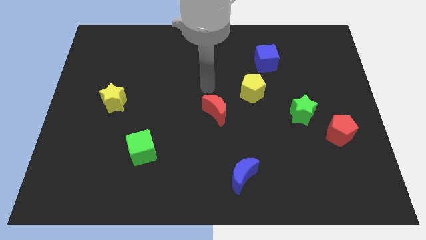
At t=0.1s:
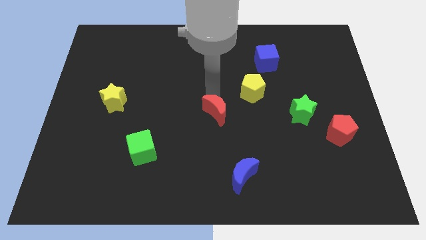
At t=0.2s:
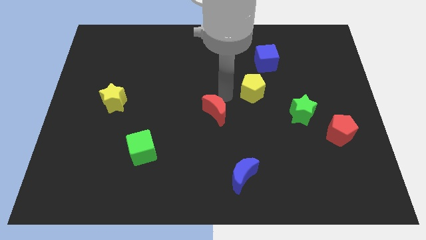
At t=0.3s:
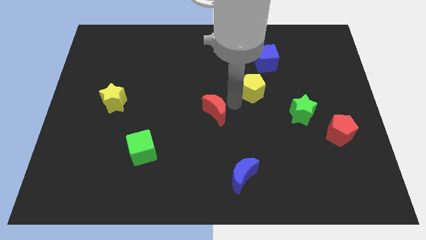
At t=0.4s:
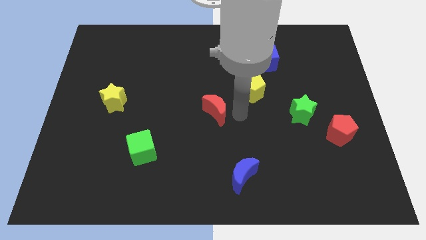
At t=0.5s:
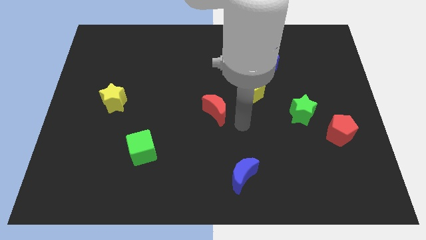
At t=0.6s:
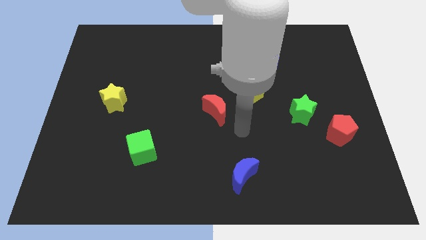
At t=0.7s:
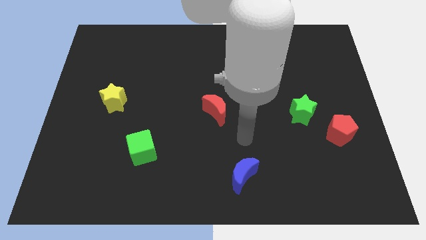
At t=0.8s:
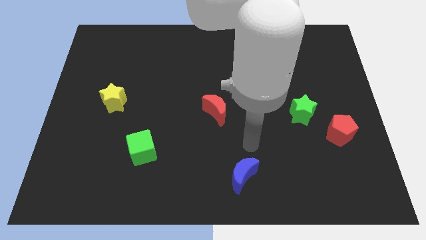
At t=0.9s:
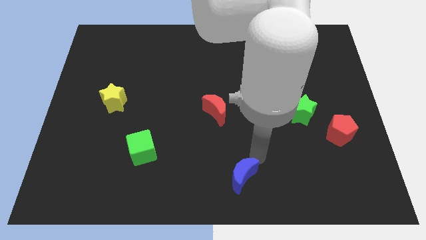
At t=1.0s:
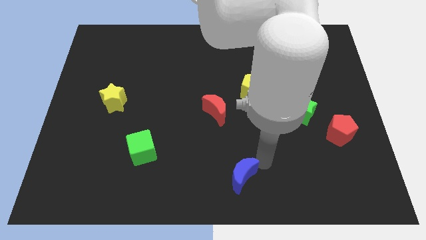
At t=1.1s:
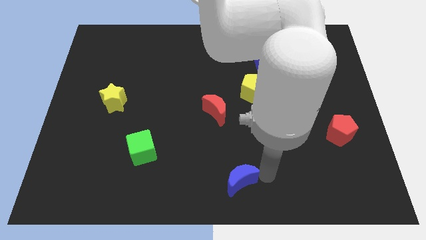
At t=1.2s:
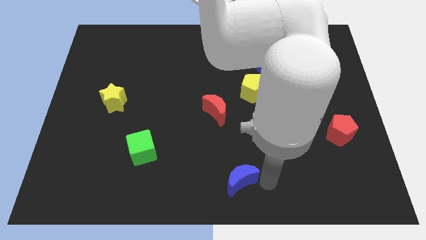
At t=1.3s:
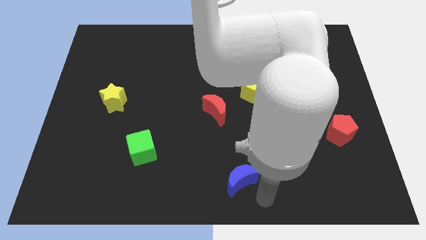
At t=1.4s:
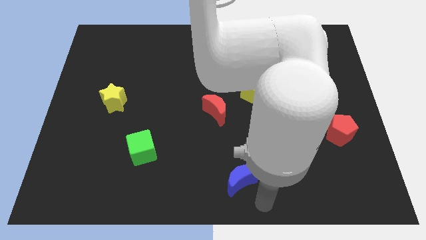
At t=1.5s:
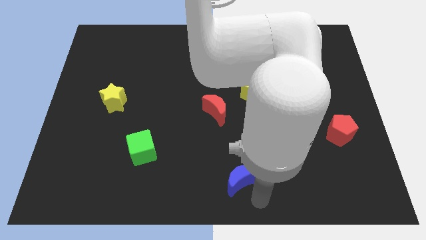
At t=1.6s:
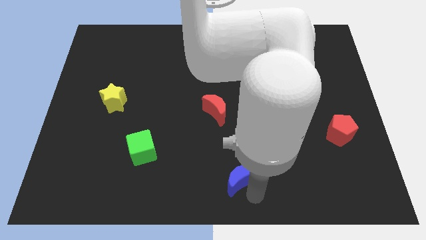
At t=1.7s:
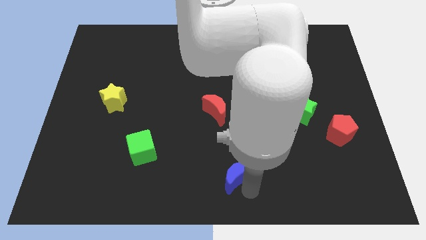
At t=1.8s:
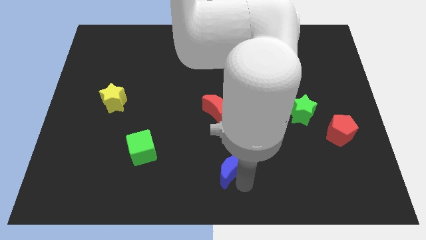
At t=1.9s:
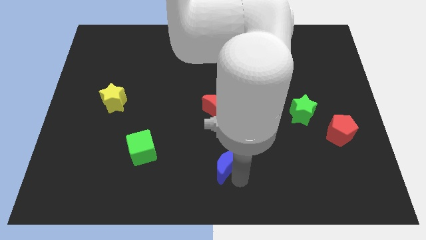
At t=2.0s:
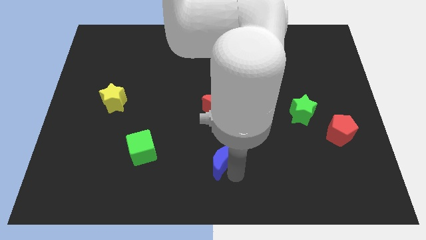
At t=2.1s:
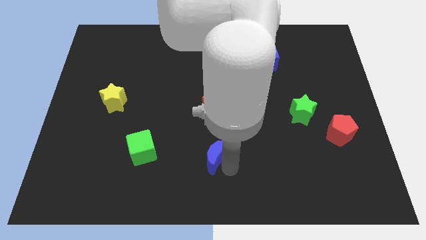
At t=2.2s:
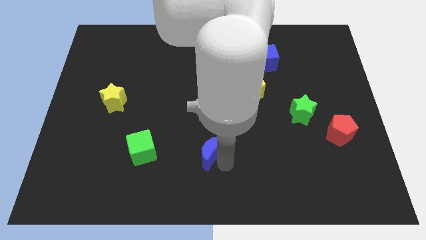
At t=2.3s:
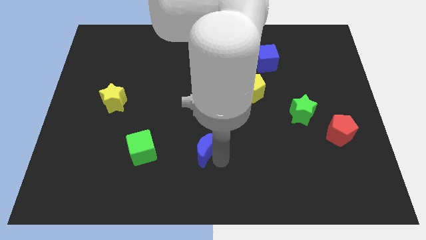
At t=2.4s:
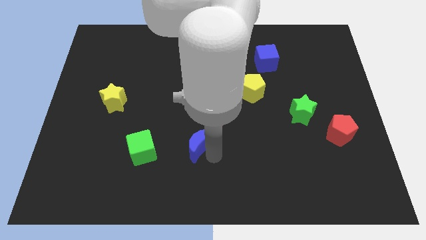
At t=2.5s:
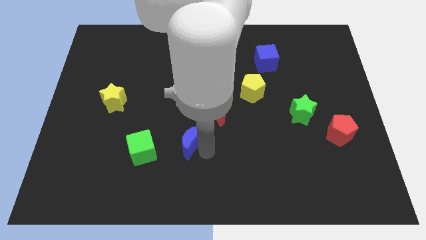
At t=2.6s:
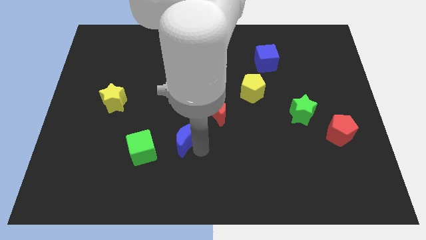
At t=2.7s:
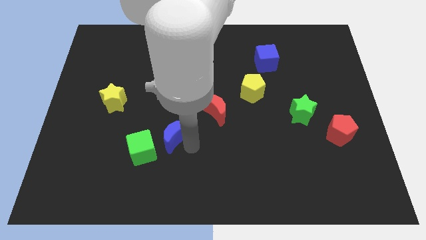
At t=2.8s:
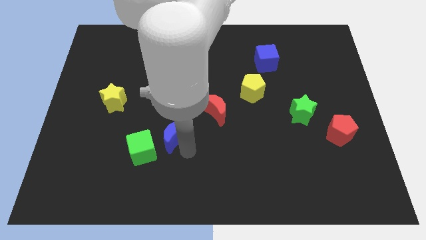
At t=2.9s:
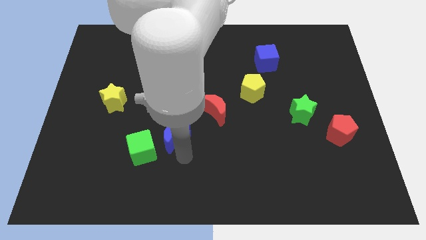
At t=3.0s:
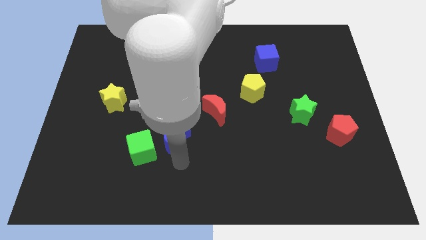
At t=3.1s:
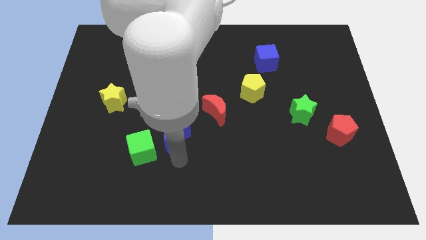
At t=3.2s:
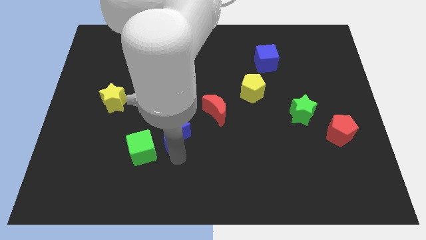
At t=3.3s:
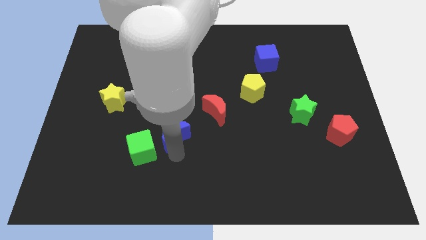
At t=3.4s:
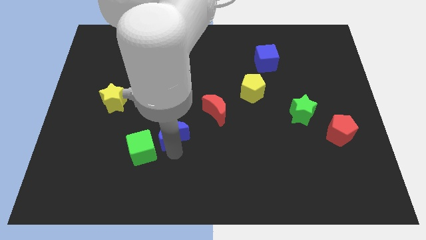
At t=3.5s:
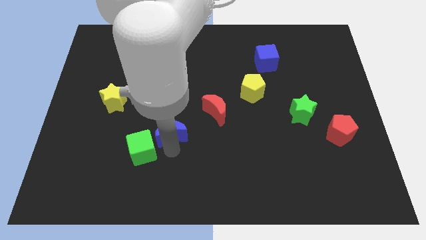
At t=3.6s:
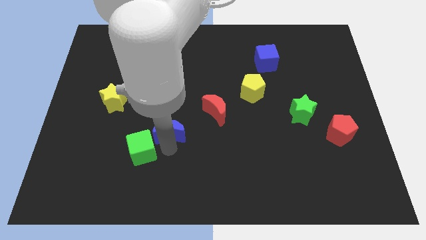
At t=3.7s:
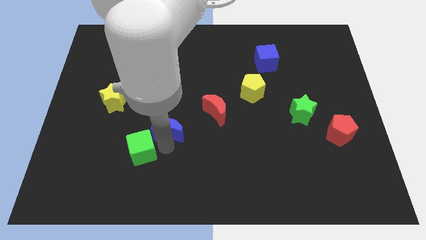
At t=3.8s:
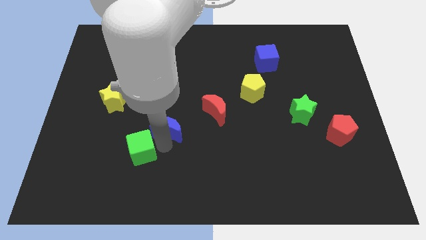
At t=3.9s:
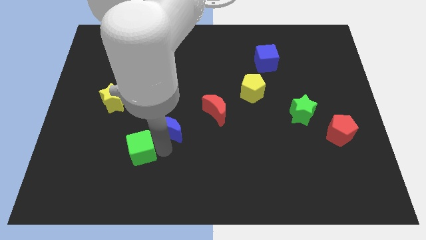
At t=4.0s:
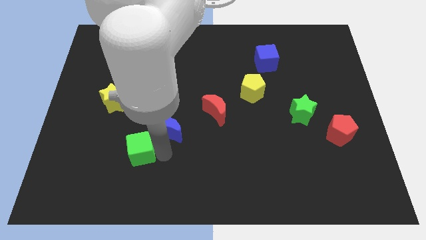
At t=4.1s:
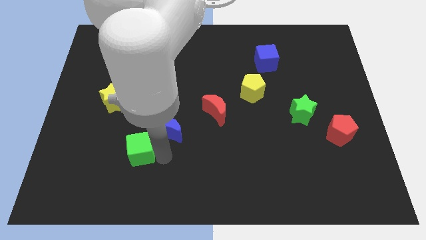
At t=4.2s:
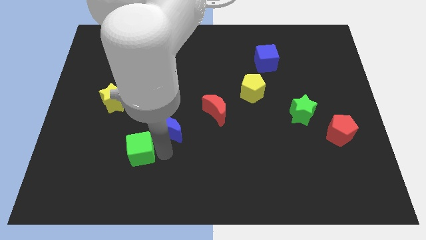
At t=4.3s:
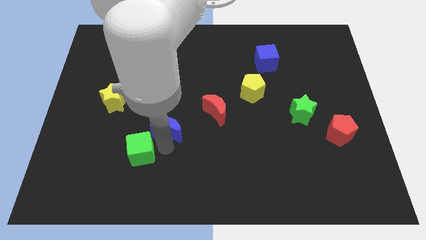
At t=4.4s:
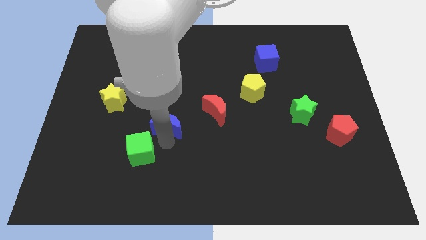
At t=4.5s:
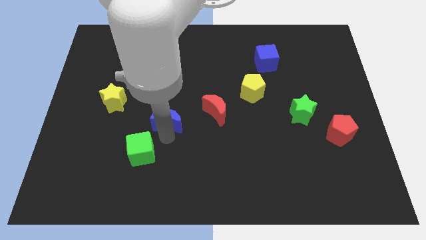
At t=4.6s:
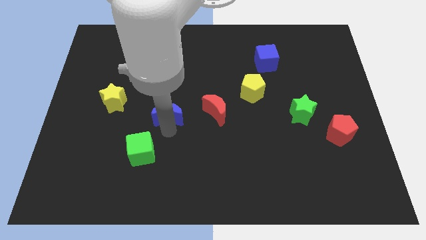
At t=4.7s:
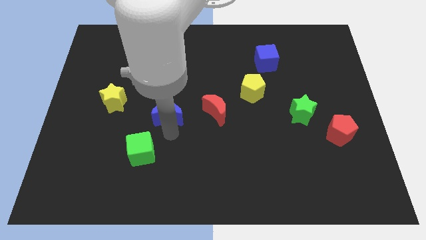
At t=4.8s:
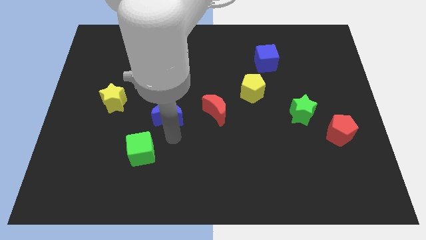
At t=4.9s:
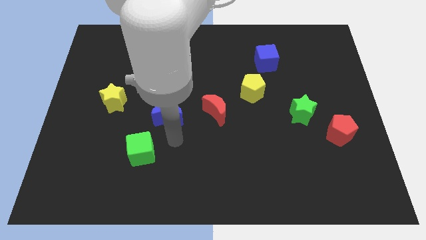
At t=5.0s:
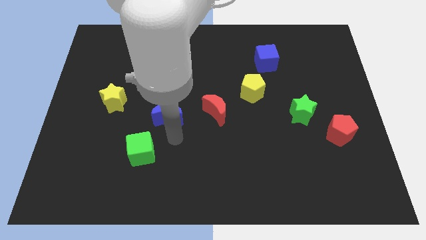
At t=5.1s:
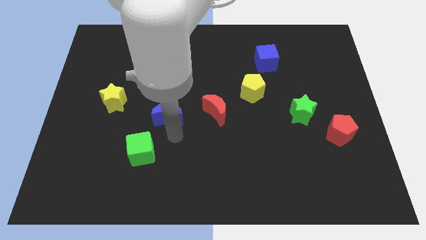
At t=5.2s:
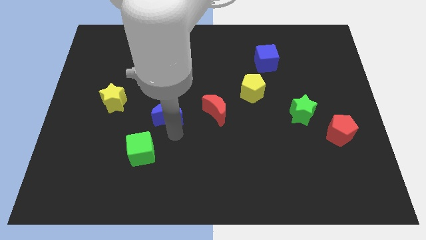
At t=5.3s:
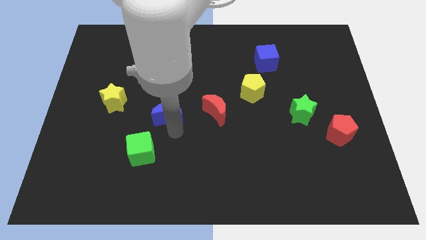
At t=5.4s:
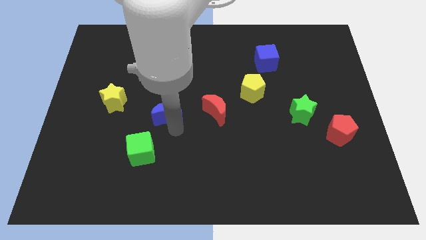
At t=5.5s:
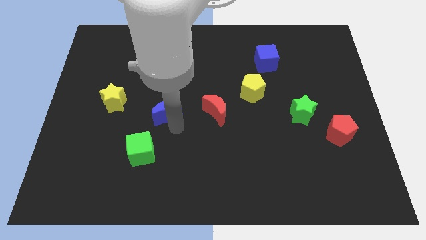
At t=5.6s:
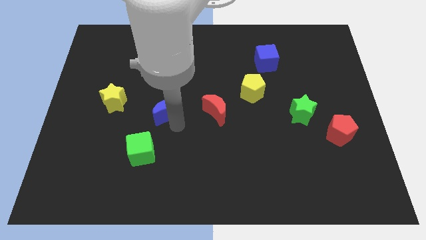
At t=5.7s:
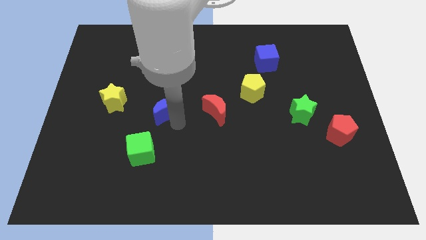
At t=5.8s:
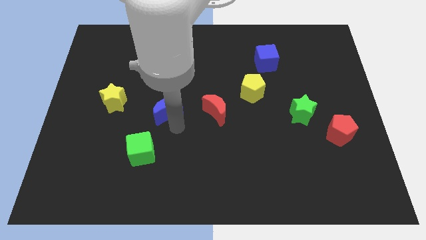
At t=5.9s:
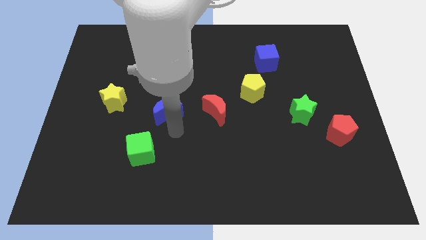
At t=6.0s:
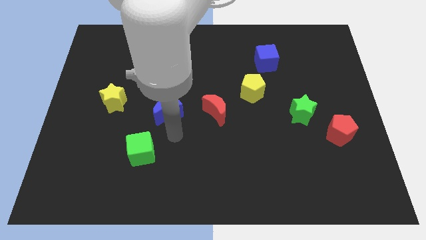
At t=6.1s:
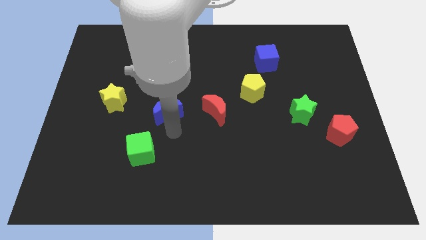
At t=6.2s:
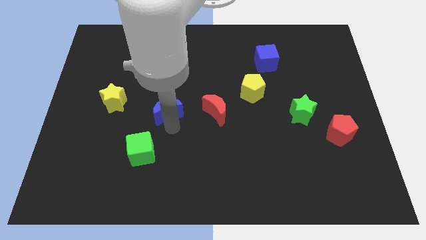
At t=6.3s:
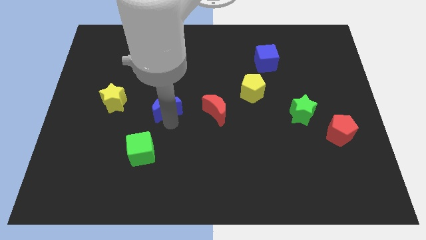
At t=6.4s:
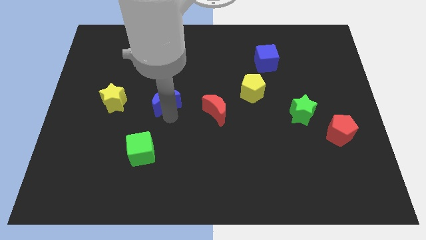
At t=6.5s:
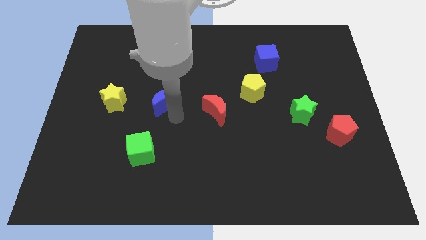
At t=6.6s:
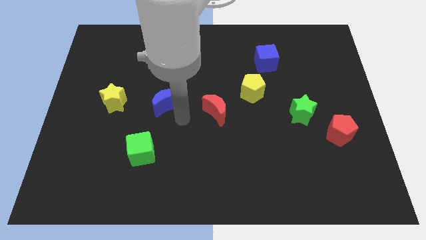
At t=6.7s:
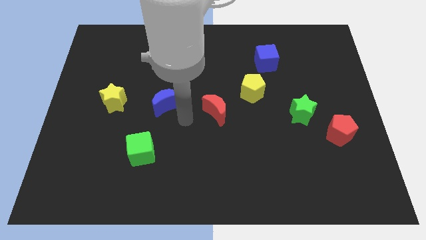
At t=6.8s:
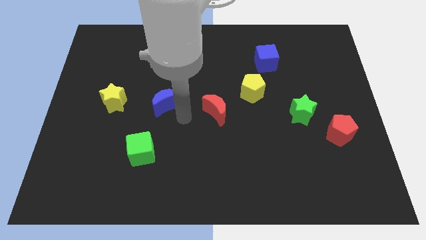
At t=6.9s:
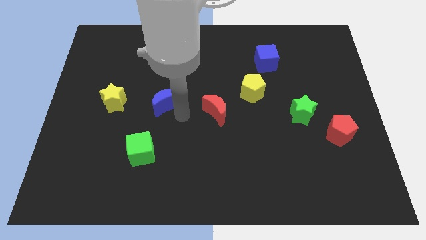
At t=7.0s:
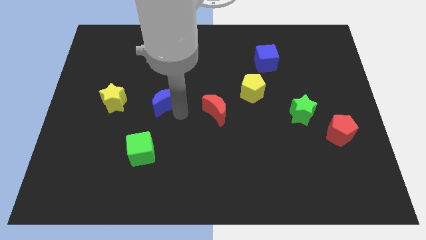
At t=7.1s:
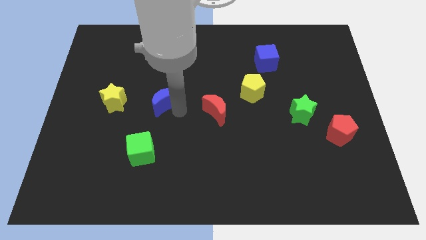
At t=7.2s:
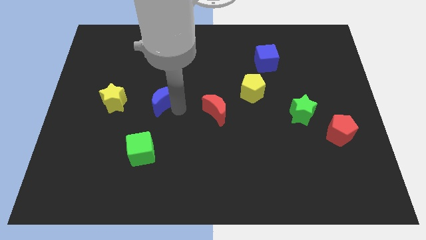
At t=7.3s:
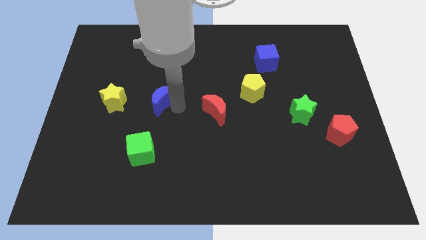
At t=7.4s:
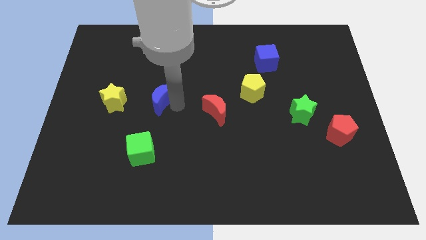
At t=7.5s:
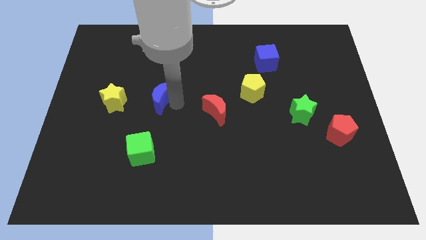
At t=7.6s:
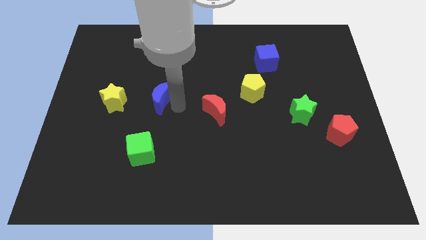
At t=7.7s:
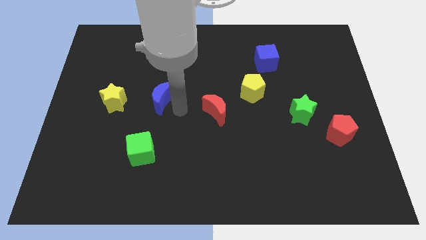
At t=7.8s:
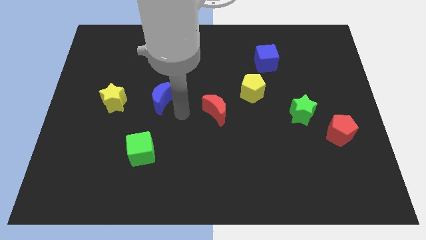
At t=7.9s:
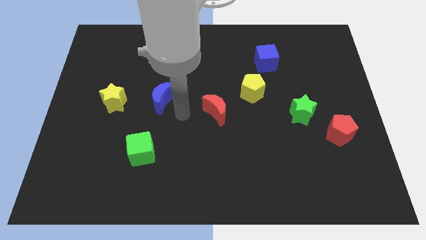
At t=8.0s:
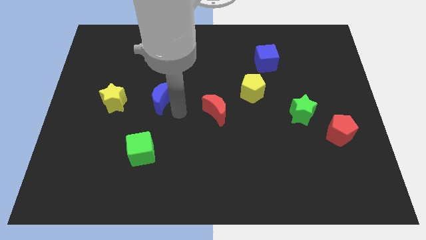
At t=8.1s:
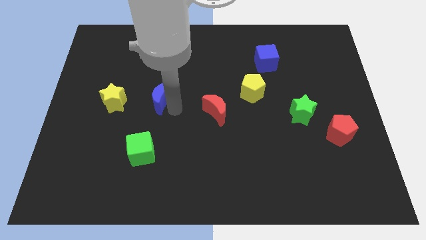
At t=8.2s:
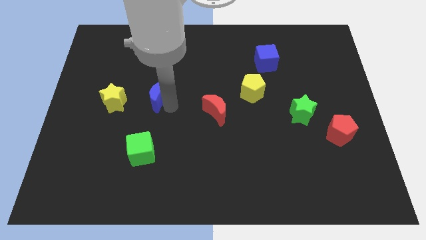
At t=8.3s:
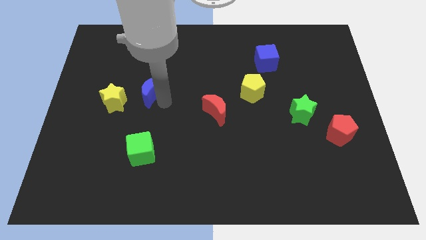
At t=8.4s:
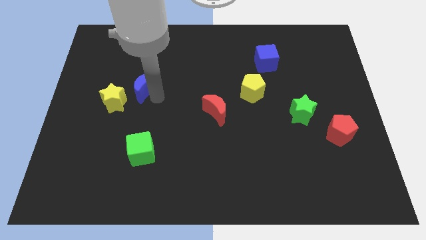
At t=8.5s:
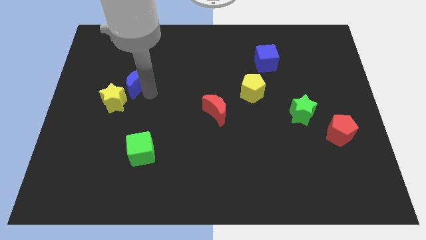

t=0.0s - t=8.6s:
move the blue moon above the yellow star
